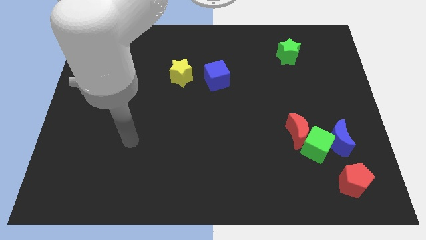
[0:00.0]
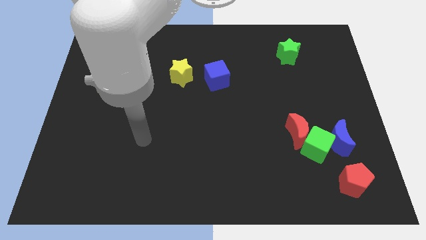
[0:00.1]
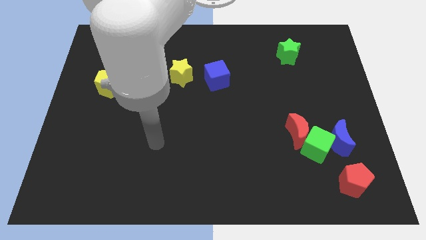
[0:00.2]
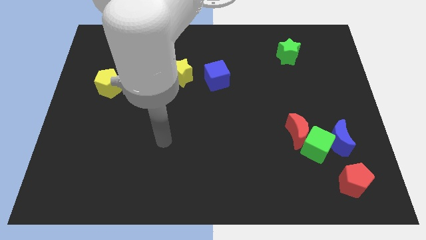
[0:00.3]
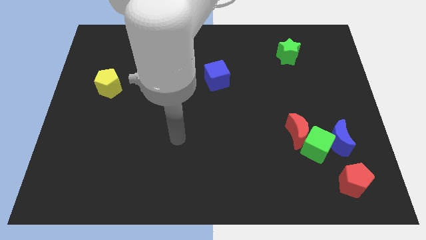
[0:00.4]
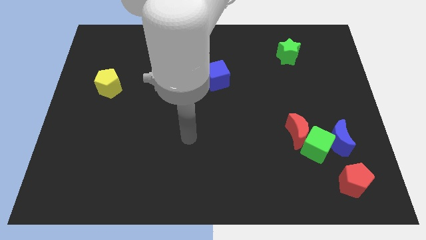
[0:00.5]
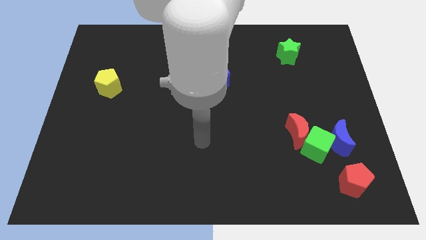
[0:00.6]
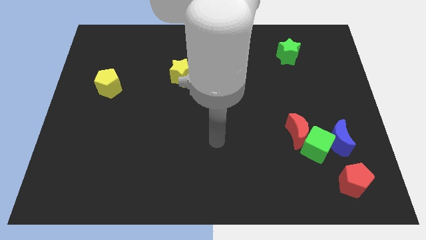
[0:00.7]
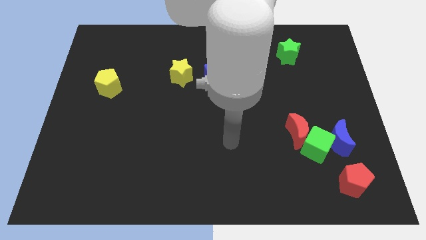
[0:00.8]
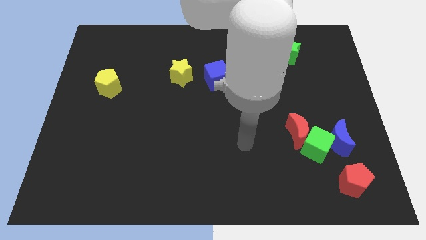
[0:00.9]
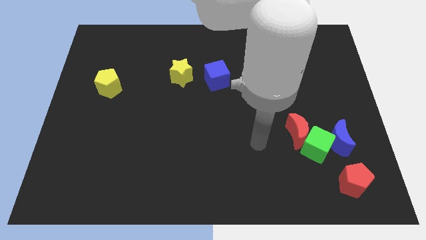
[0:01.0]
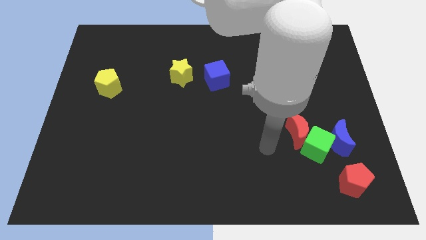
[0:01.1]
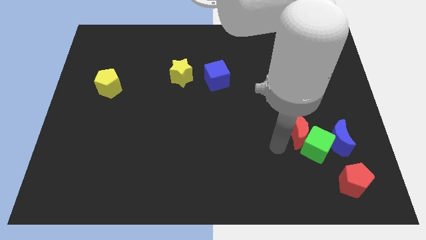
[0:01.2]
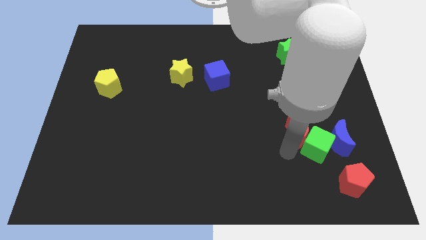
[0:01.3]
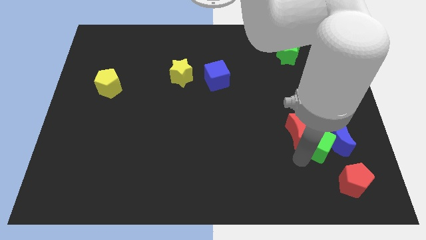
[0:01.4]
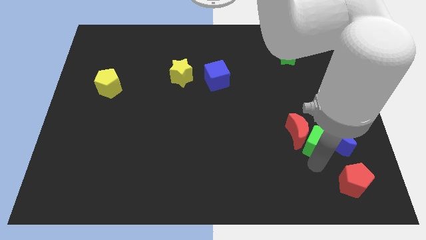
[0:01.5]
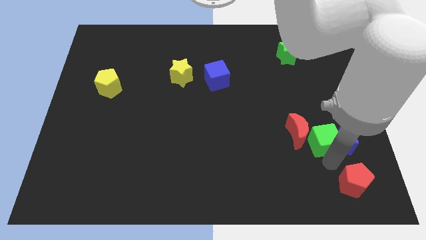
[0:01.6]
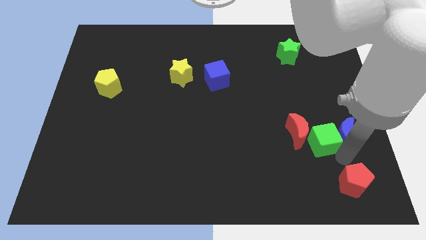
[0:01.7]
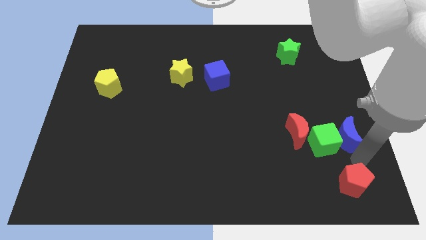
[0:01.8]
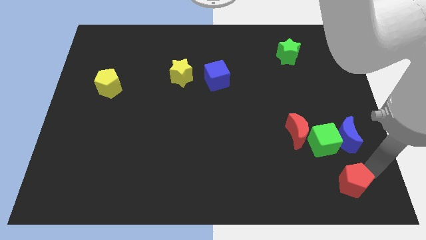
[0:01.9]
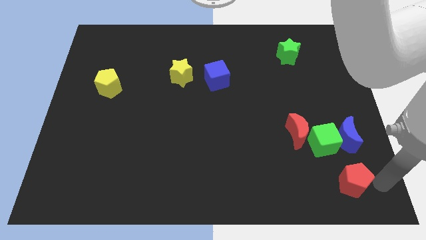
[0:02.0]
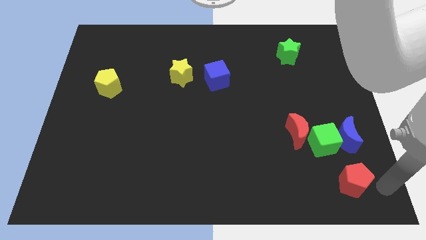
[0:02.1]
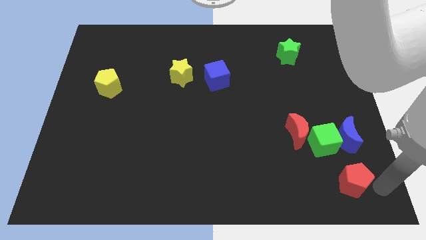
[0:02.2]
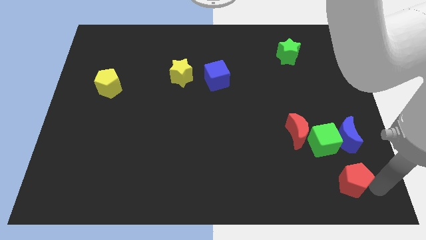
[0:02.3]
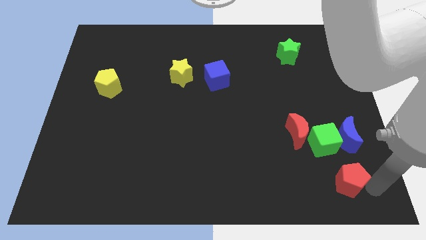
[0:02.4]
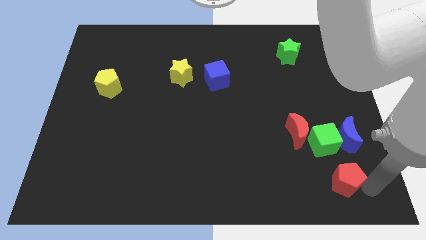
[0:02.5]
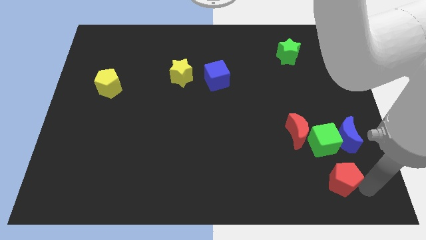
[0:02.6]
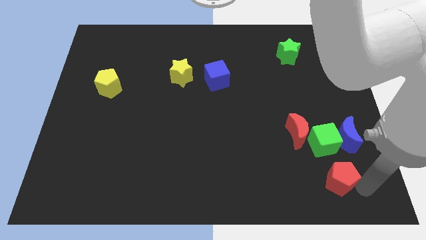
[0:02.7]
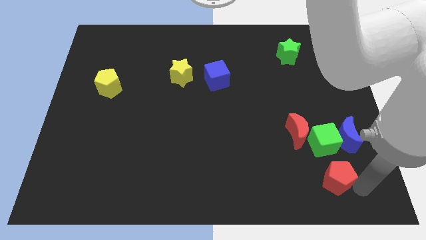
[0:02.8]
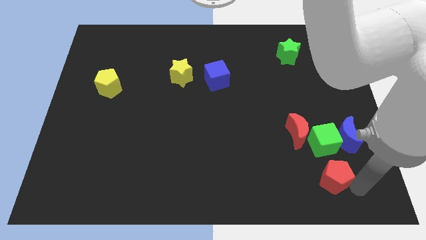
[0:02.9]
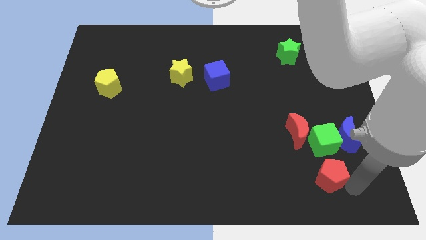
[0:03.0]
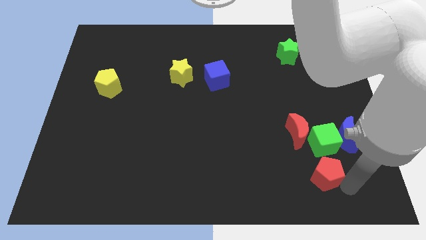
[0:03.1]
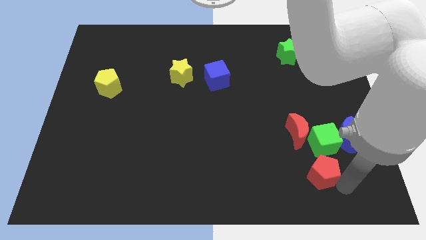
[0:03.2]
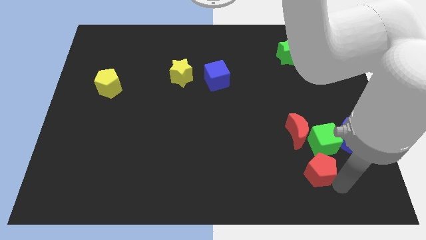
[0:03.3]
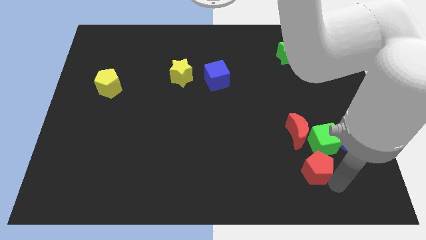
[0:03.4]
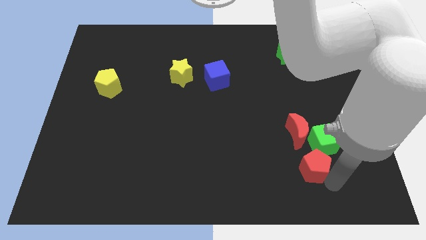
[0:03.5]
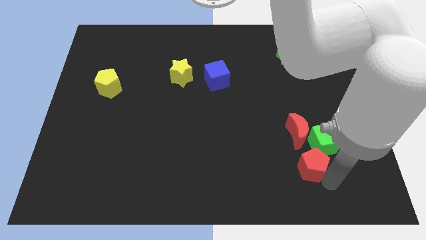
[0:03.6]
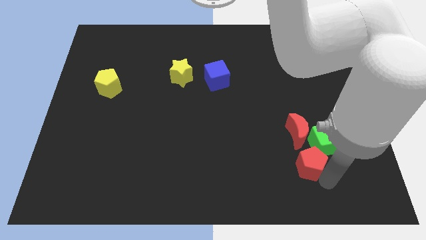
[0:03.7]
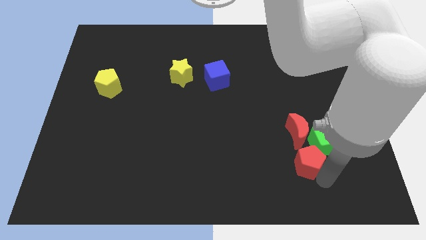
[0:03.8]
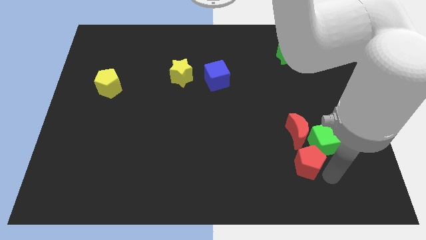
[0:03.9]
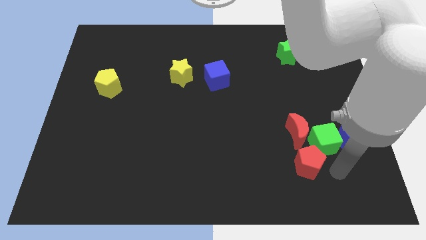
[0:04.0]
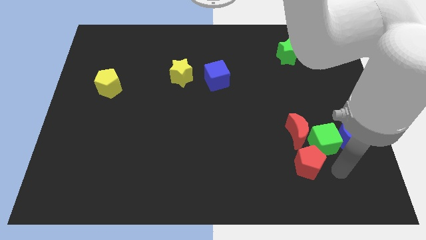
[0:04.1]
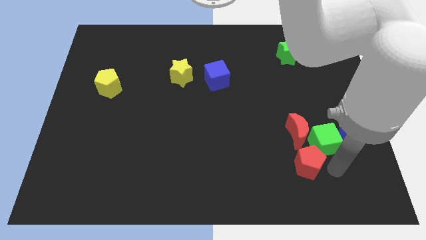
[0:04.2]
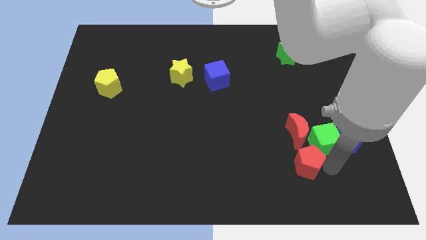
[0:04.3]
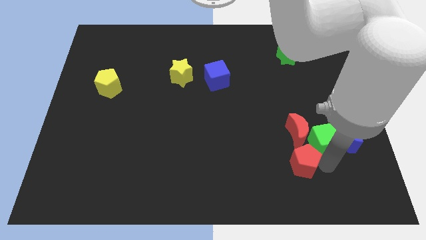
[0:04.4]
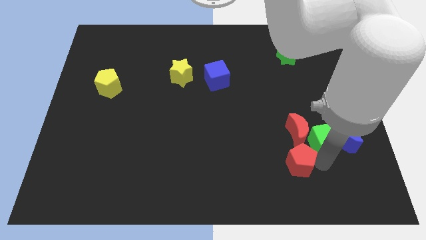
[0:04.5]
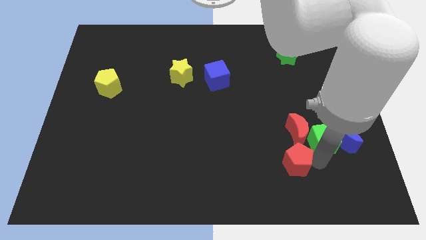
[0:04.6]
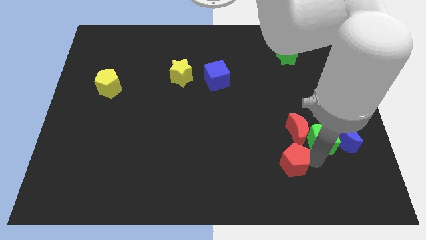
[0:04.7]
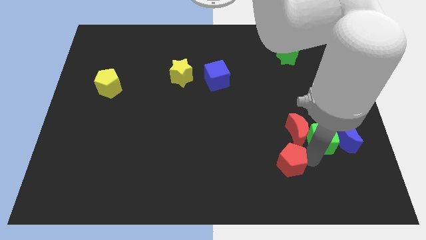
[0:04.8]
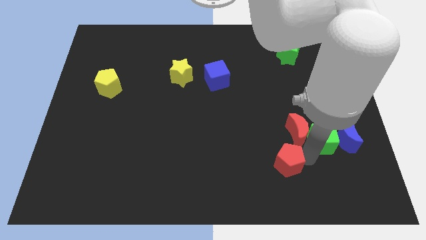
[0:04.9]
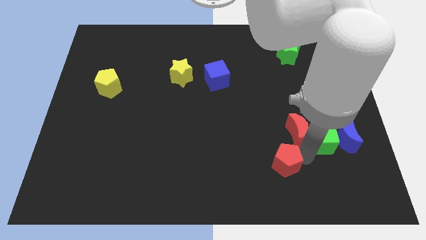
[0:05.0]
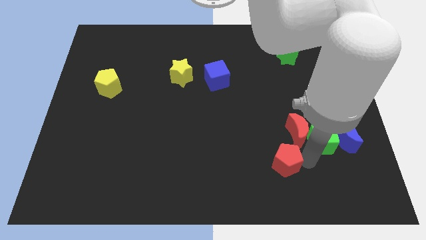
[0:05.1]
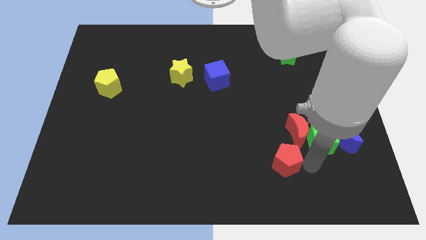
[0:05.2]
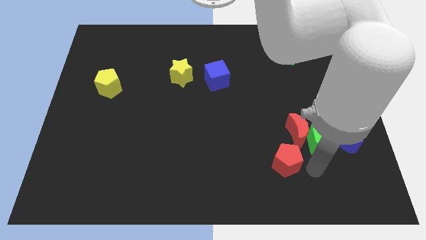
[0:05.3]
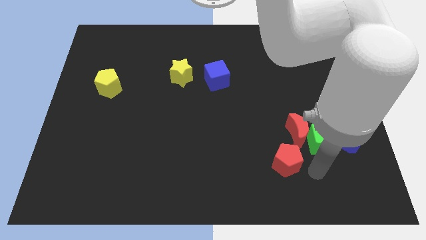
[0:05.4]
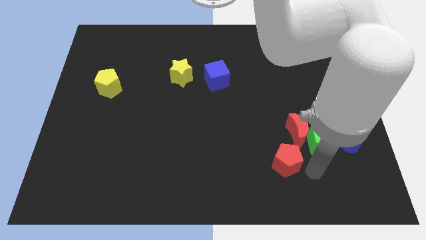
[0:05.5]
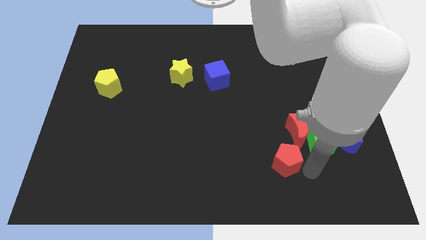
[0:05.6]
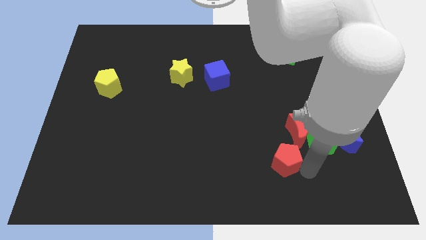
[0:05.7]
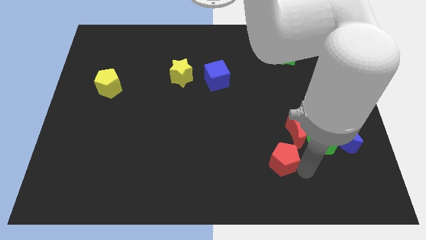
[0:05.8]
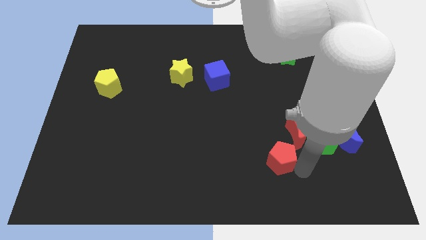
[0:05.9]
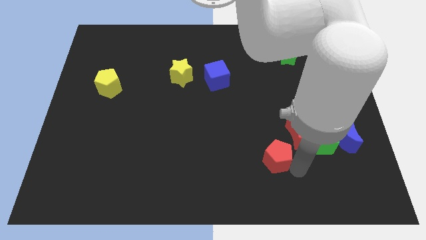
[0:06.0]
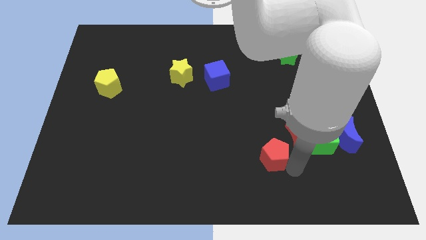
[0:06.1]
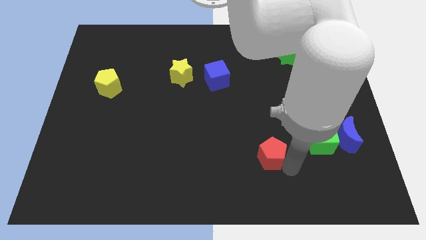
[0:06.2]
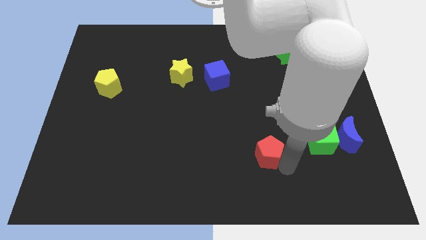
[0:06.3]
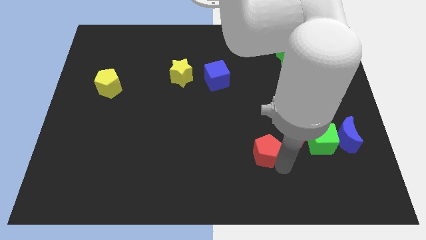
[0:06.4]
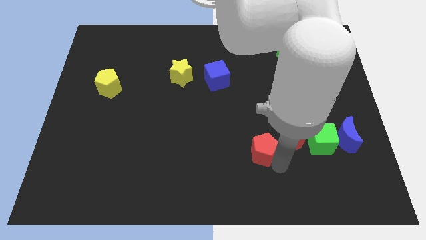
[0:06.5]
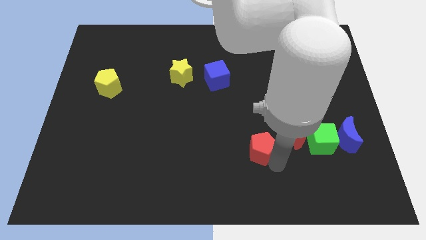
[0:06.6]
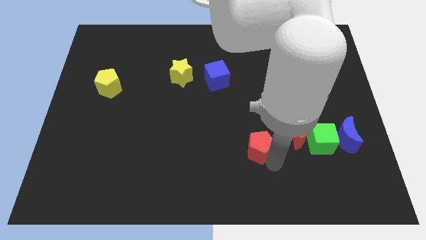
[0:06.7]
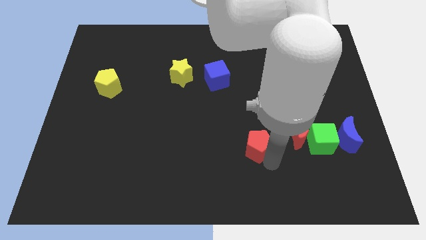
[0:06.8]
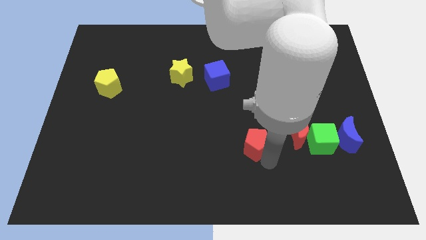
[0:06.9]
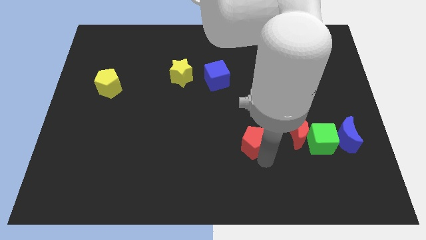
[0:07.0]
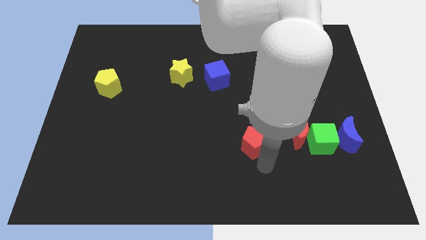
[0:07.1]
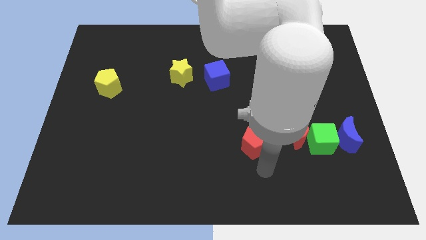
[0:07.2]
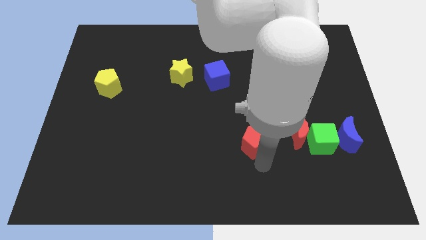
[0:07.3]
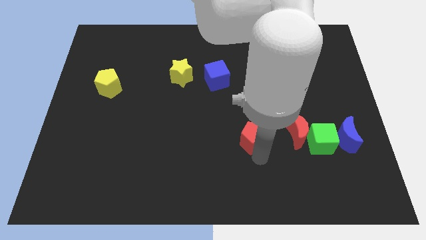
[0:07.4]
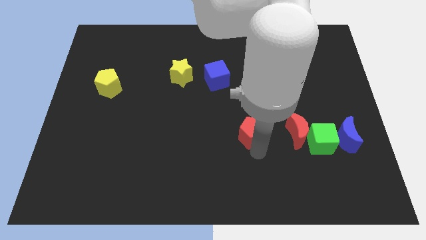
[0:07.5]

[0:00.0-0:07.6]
push the red pentagon up and then left

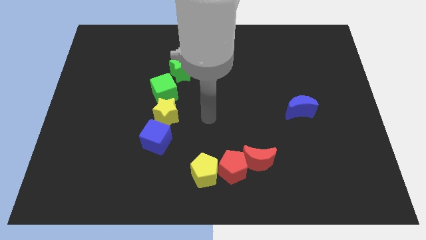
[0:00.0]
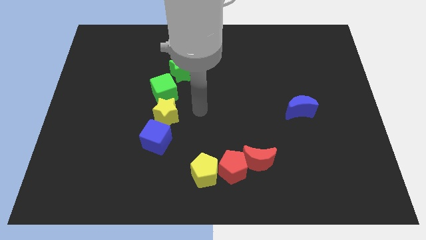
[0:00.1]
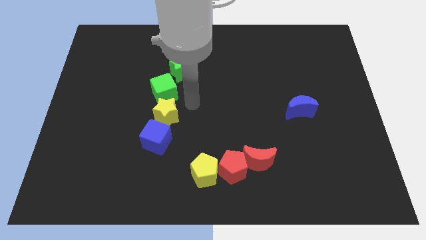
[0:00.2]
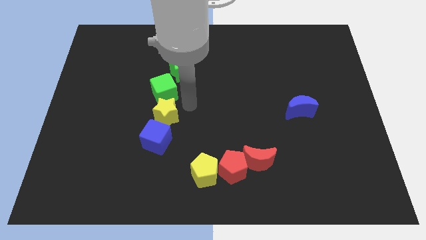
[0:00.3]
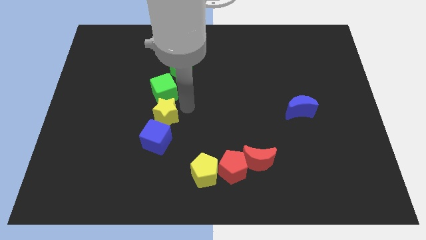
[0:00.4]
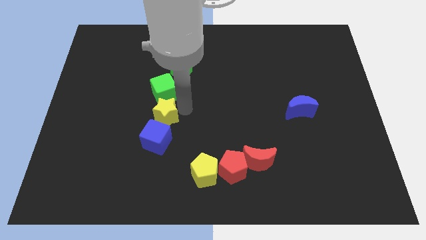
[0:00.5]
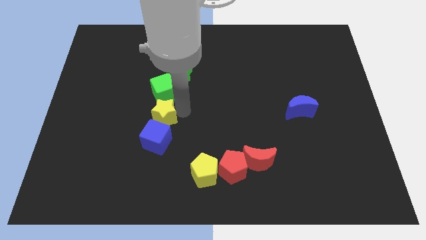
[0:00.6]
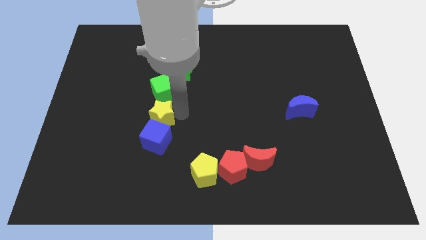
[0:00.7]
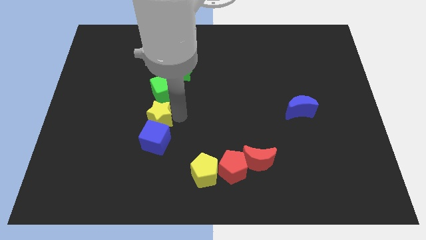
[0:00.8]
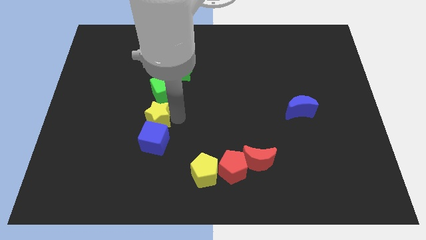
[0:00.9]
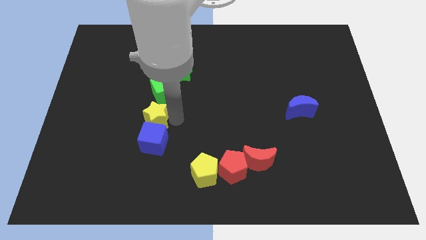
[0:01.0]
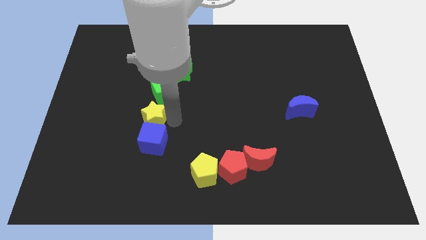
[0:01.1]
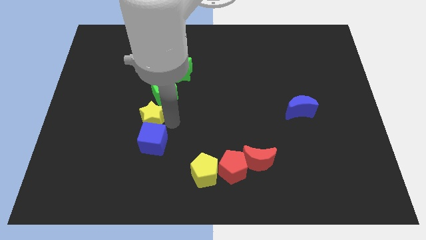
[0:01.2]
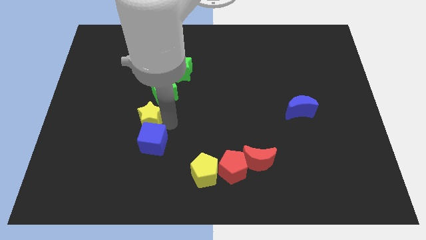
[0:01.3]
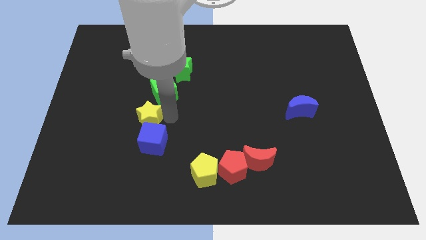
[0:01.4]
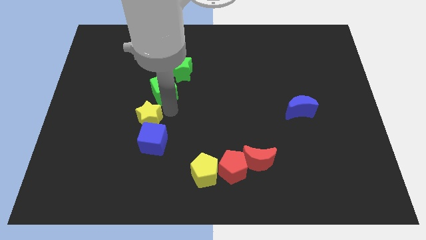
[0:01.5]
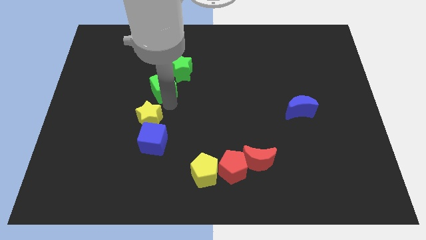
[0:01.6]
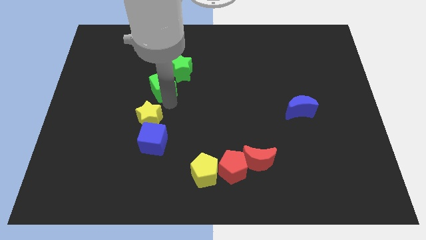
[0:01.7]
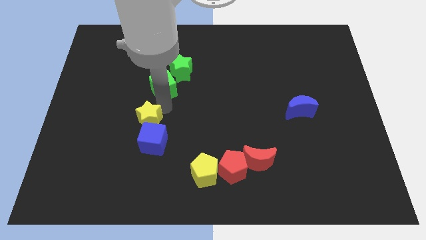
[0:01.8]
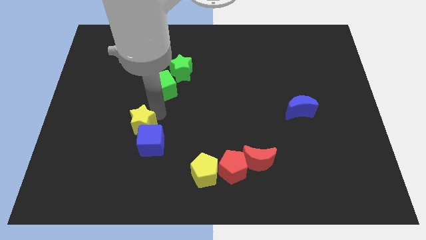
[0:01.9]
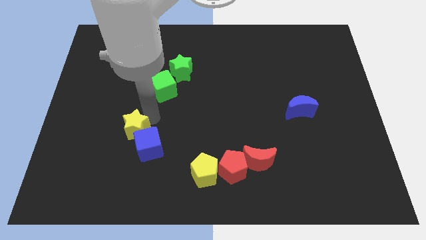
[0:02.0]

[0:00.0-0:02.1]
slide the yellow star downwards and to the left a little
